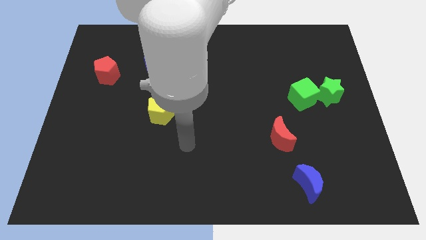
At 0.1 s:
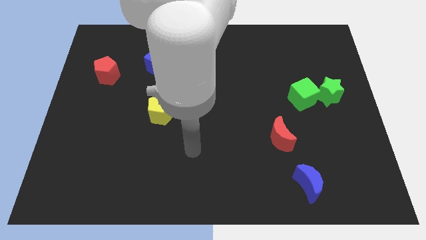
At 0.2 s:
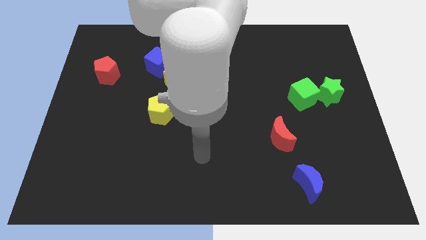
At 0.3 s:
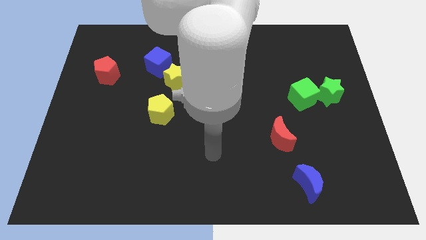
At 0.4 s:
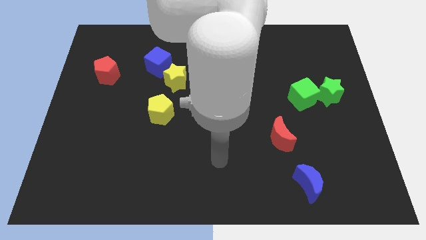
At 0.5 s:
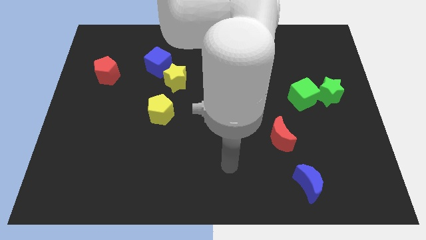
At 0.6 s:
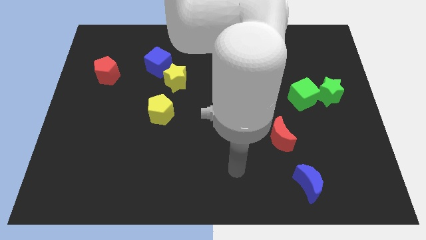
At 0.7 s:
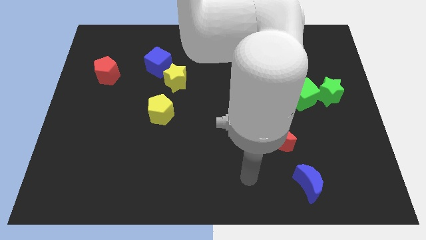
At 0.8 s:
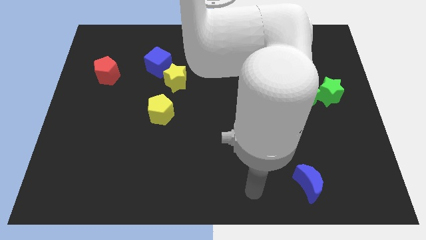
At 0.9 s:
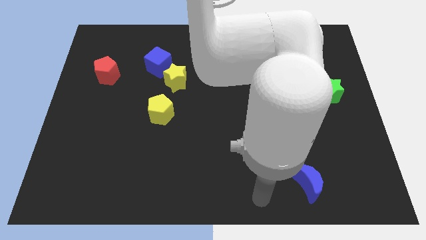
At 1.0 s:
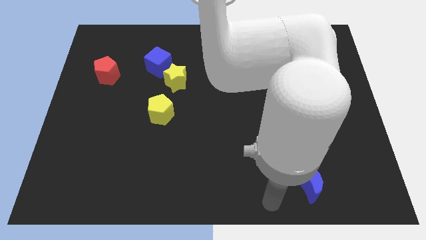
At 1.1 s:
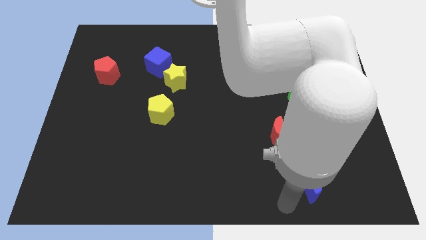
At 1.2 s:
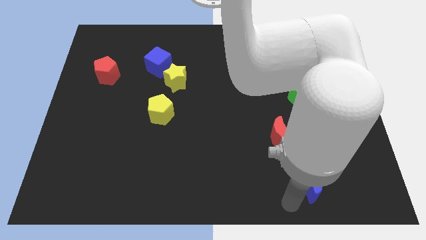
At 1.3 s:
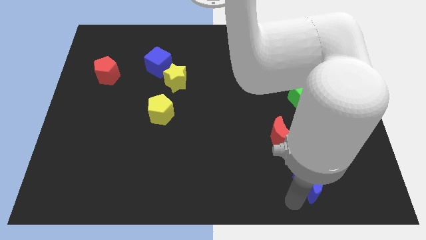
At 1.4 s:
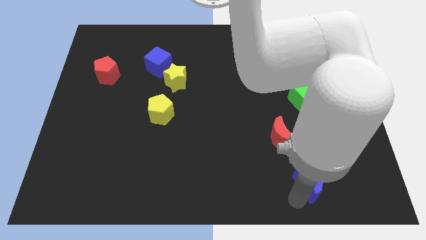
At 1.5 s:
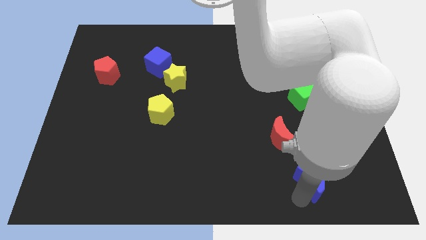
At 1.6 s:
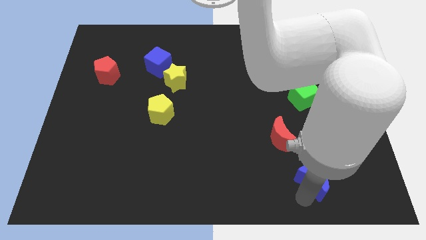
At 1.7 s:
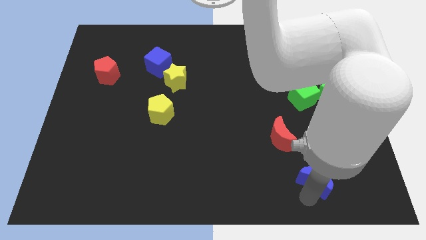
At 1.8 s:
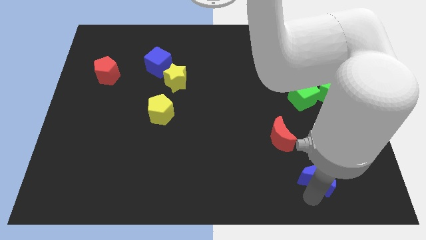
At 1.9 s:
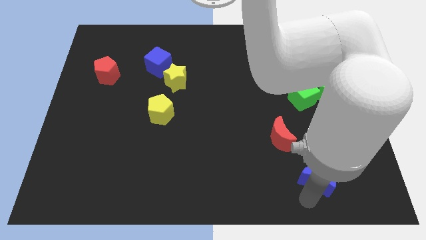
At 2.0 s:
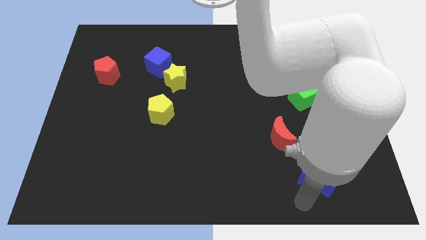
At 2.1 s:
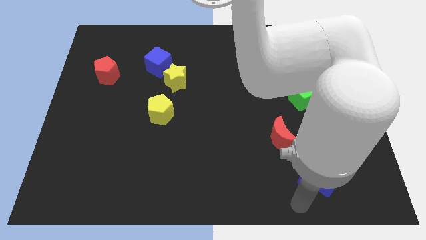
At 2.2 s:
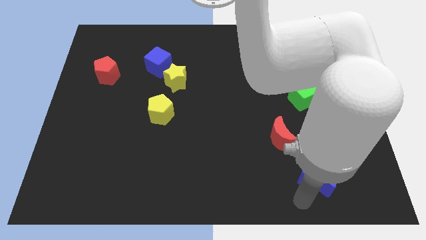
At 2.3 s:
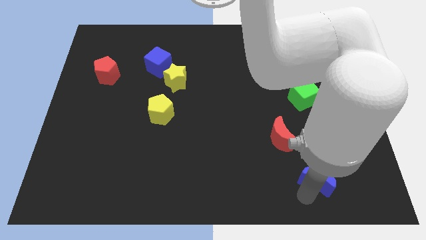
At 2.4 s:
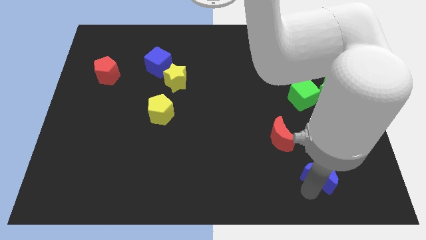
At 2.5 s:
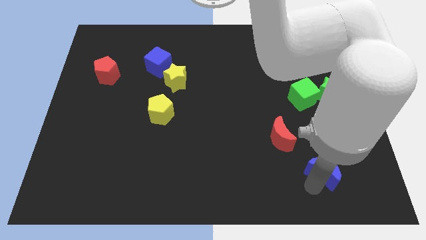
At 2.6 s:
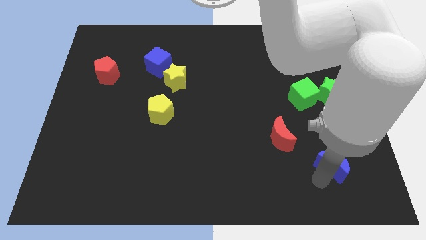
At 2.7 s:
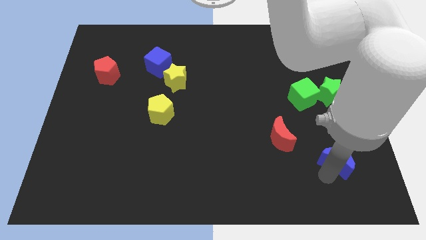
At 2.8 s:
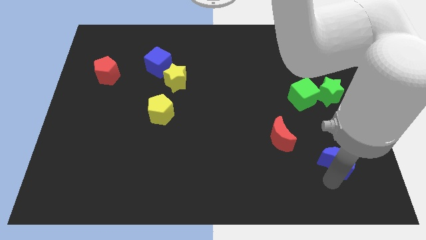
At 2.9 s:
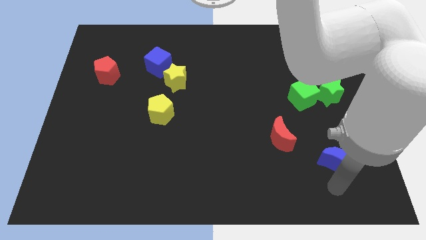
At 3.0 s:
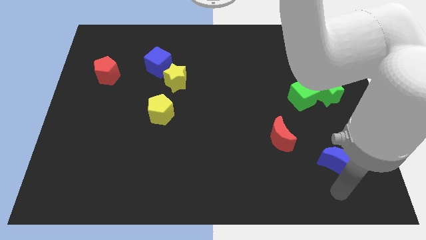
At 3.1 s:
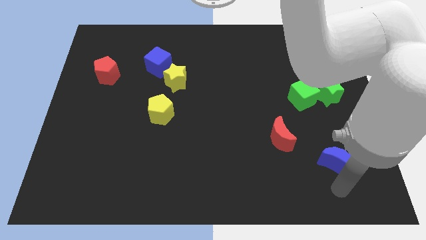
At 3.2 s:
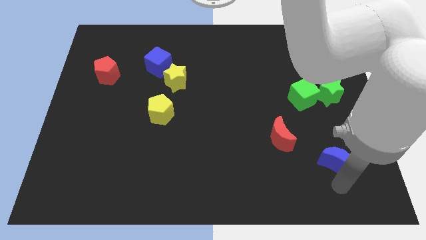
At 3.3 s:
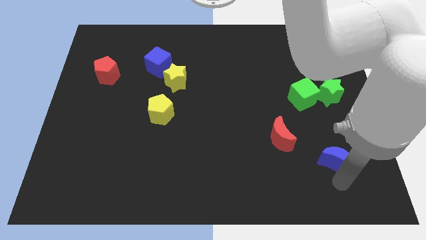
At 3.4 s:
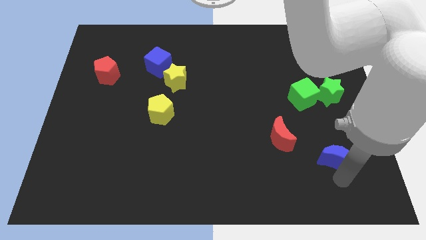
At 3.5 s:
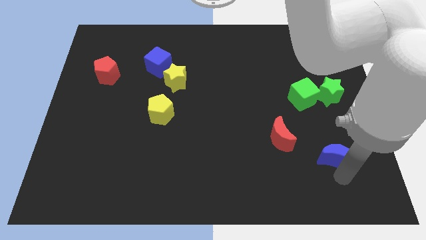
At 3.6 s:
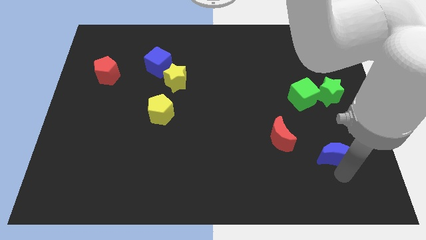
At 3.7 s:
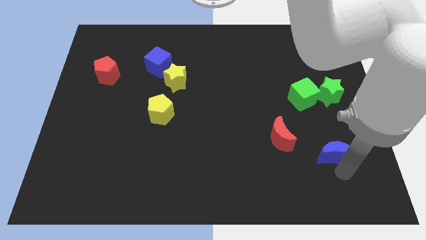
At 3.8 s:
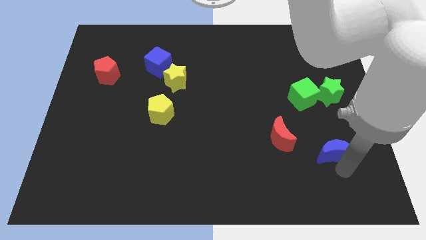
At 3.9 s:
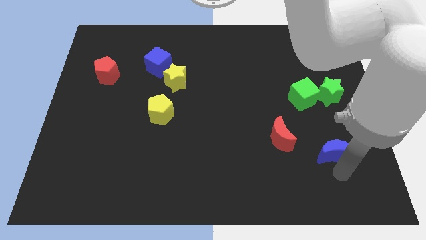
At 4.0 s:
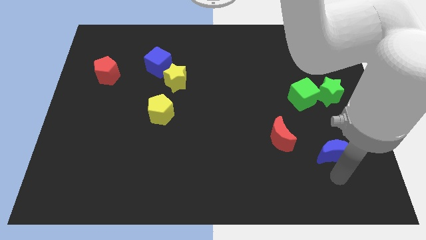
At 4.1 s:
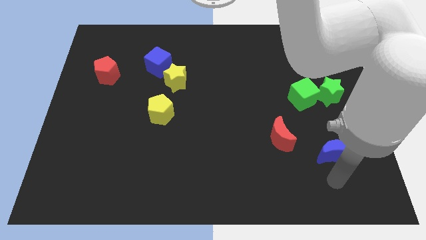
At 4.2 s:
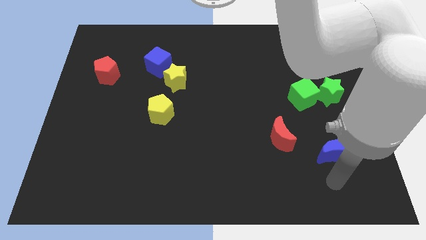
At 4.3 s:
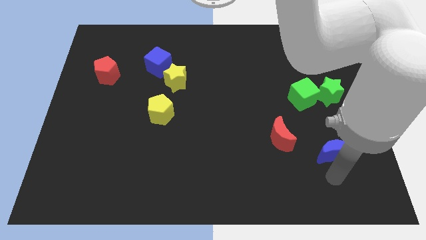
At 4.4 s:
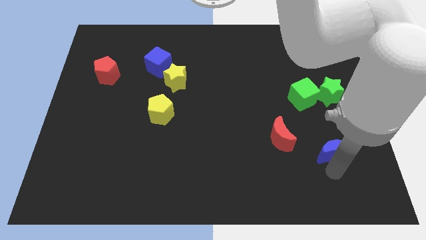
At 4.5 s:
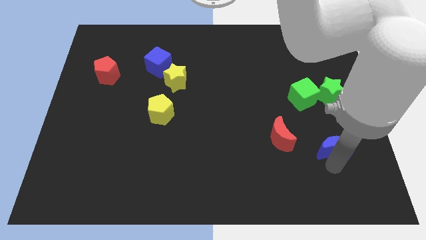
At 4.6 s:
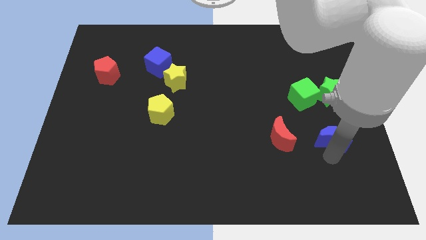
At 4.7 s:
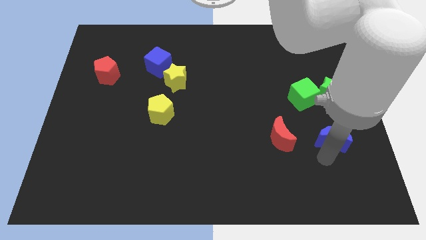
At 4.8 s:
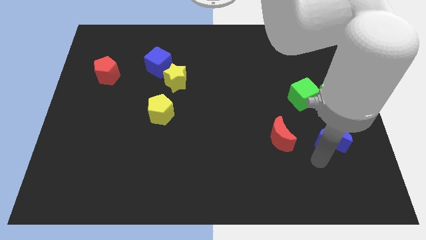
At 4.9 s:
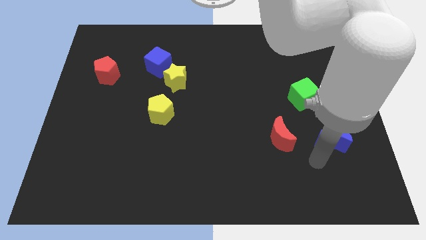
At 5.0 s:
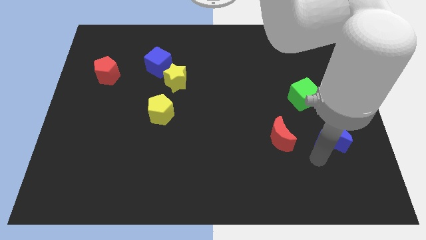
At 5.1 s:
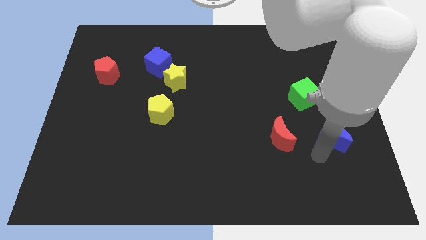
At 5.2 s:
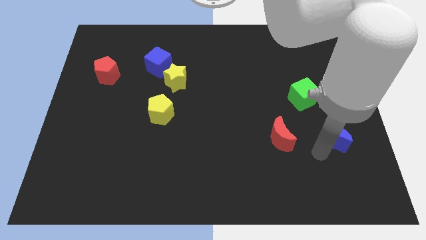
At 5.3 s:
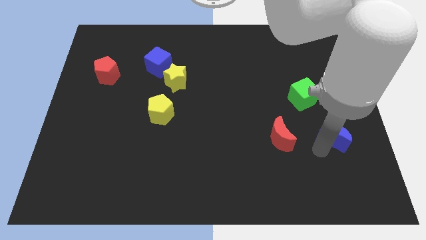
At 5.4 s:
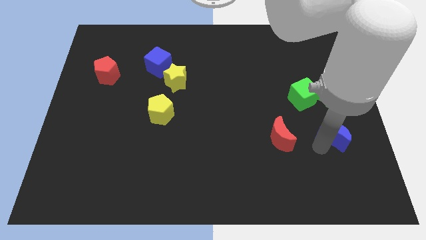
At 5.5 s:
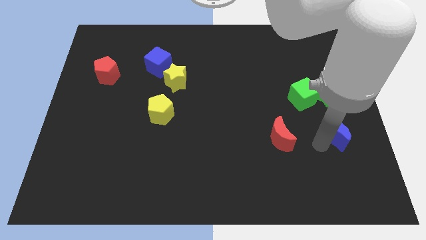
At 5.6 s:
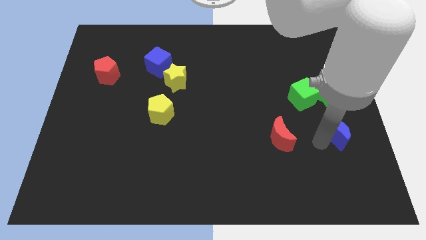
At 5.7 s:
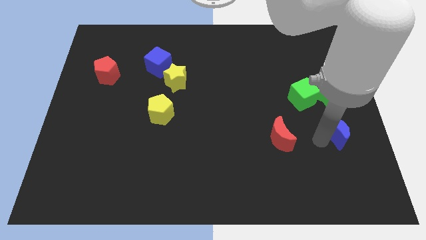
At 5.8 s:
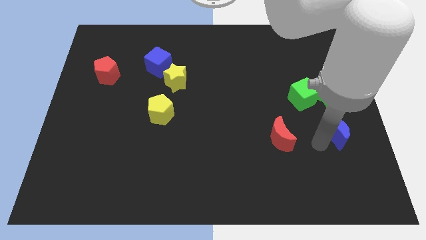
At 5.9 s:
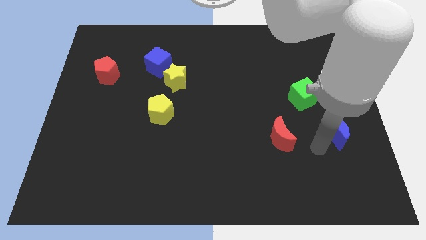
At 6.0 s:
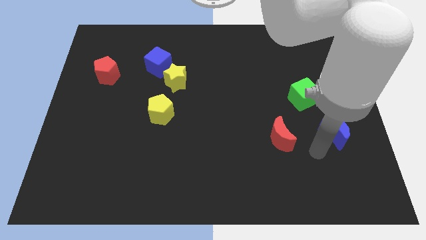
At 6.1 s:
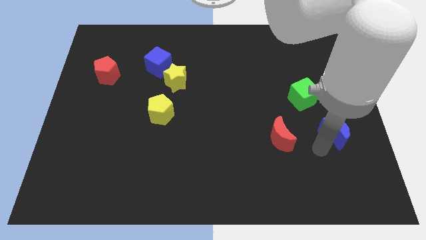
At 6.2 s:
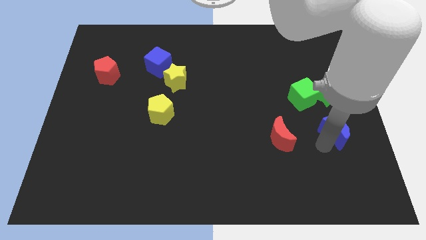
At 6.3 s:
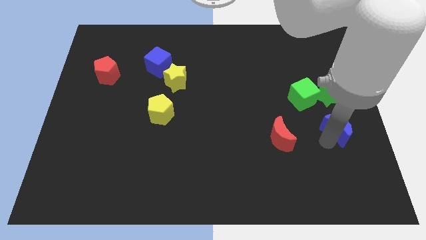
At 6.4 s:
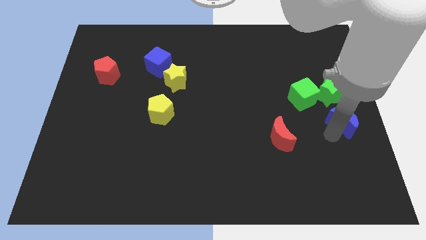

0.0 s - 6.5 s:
move the blue moon to the right side
